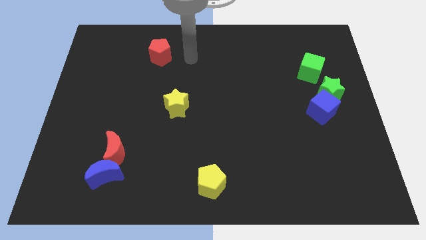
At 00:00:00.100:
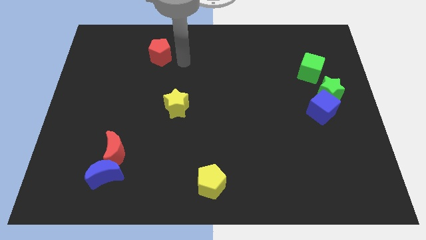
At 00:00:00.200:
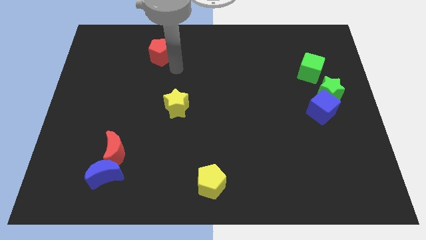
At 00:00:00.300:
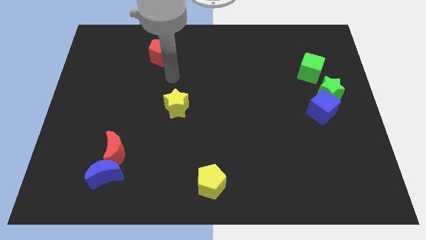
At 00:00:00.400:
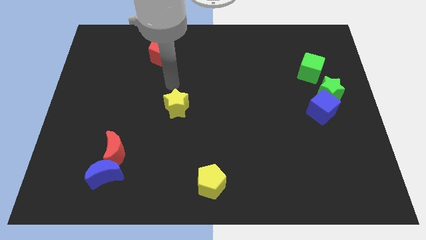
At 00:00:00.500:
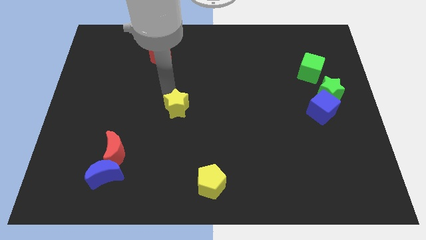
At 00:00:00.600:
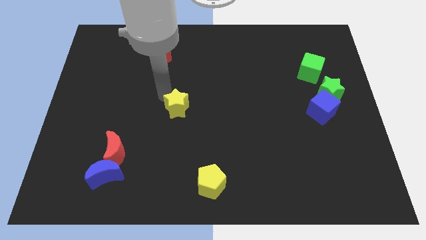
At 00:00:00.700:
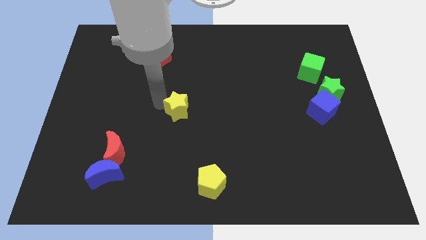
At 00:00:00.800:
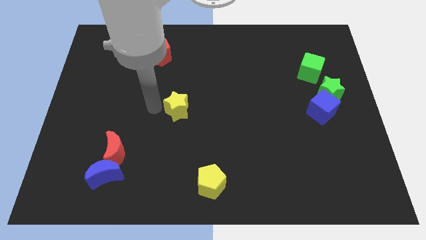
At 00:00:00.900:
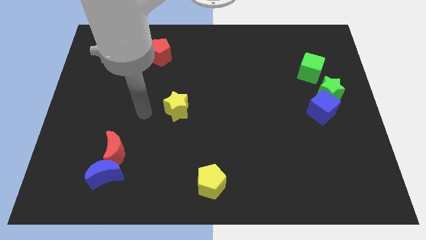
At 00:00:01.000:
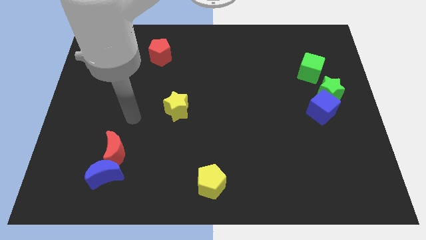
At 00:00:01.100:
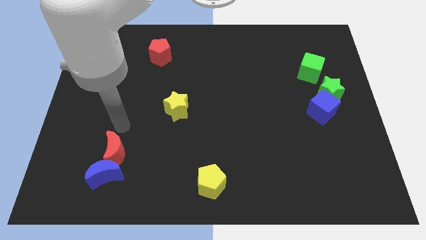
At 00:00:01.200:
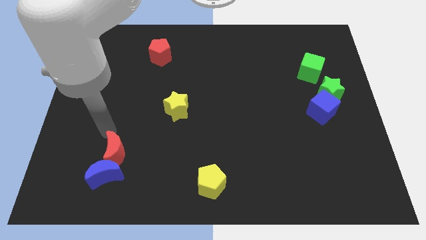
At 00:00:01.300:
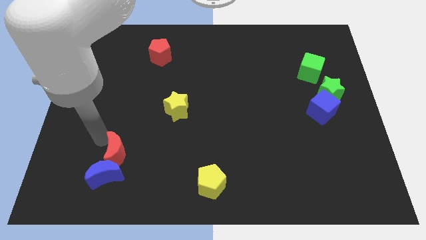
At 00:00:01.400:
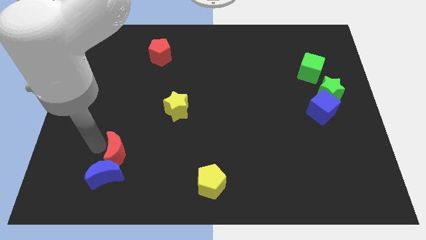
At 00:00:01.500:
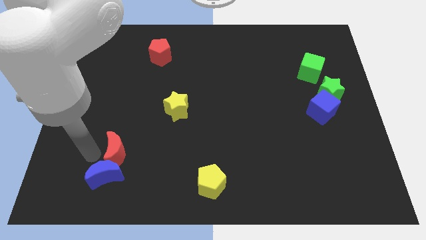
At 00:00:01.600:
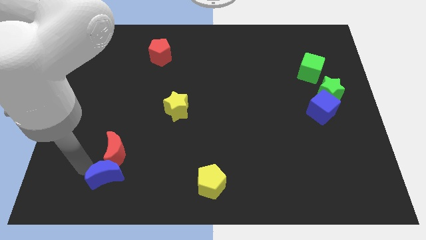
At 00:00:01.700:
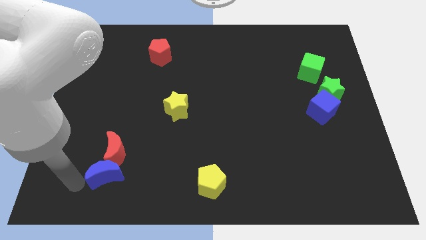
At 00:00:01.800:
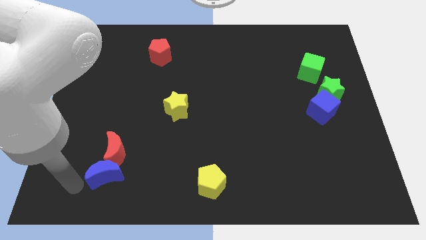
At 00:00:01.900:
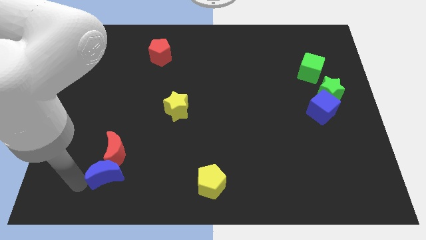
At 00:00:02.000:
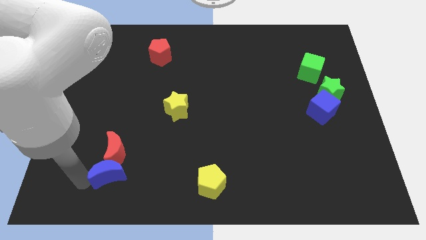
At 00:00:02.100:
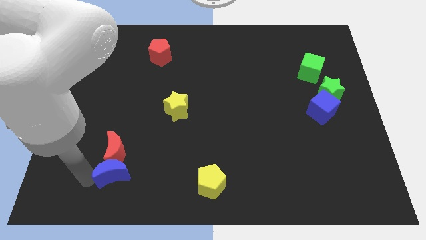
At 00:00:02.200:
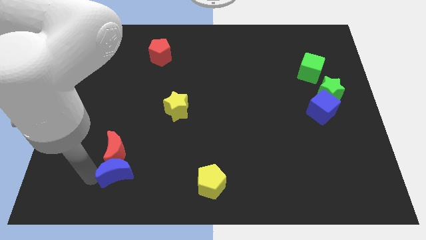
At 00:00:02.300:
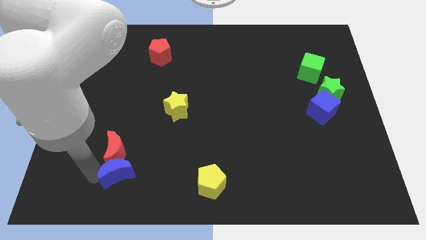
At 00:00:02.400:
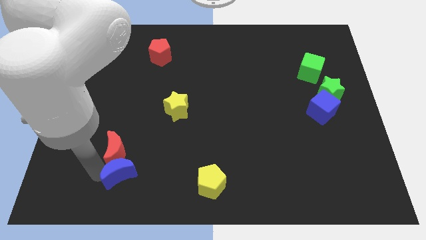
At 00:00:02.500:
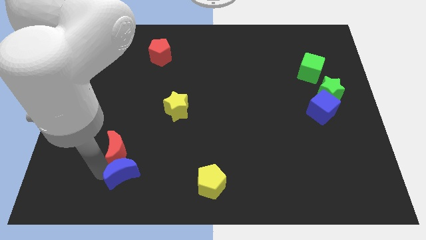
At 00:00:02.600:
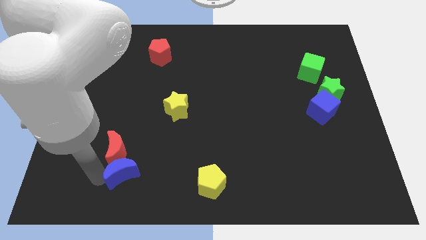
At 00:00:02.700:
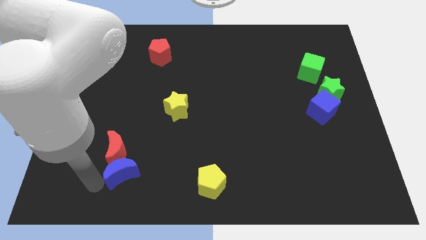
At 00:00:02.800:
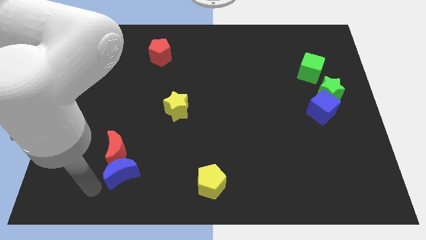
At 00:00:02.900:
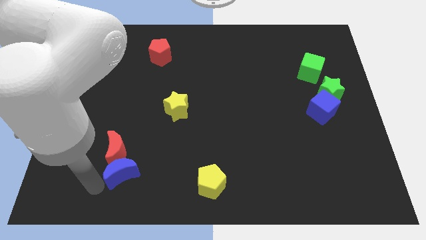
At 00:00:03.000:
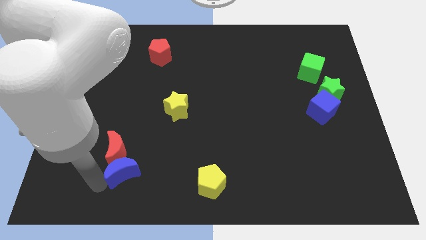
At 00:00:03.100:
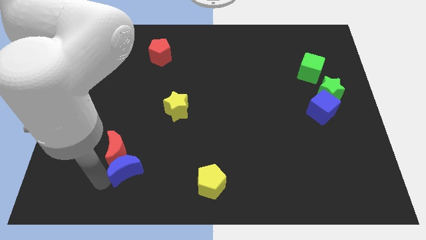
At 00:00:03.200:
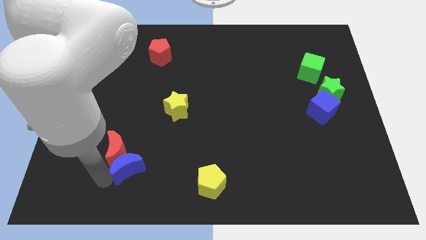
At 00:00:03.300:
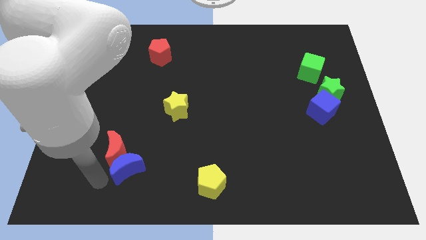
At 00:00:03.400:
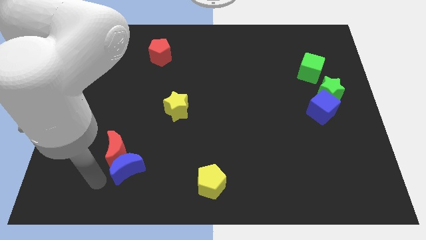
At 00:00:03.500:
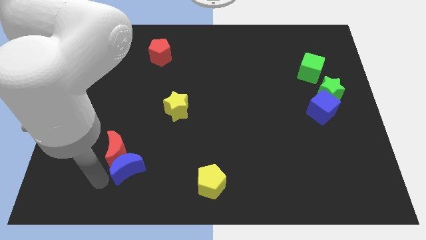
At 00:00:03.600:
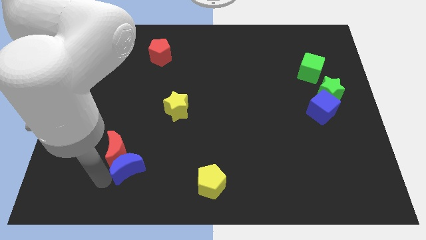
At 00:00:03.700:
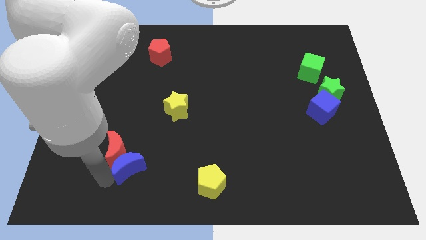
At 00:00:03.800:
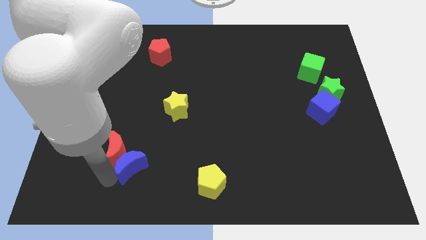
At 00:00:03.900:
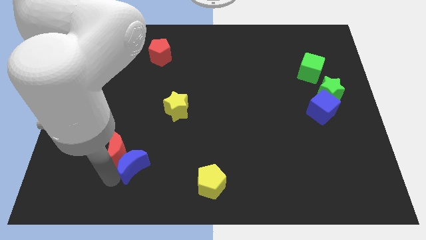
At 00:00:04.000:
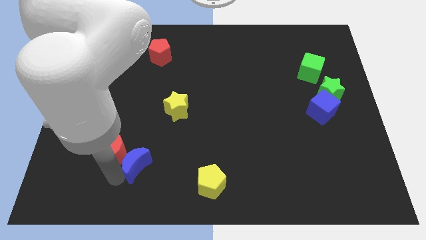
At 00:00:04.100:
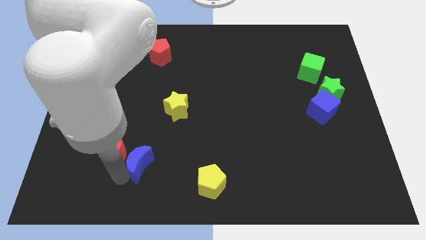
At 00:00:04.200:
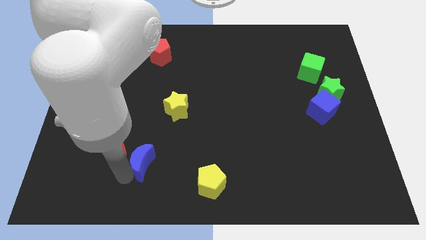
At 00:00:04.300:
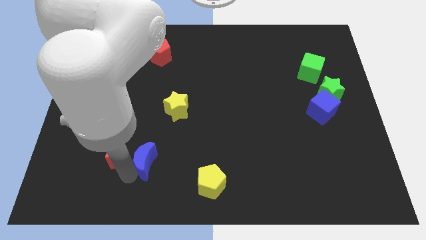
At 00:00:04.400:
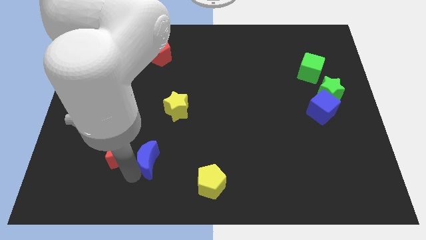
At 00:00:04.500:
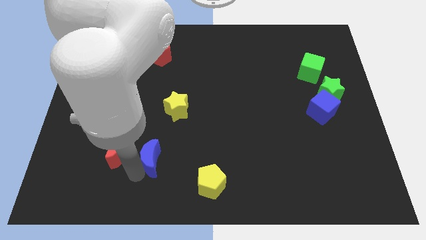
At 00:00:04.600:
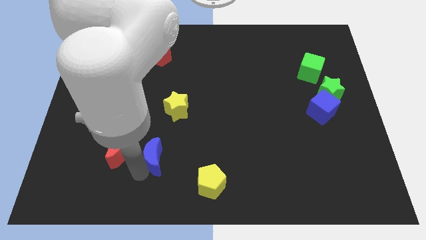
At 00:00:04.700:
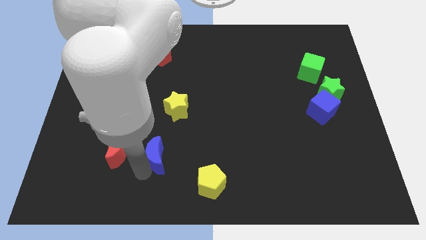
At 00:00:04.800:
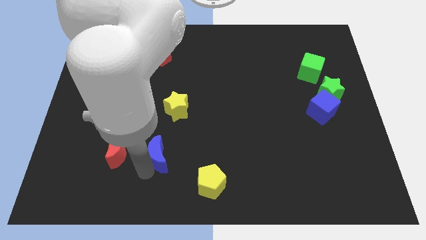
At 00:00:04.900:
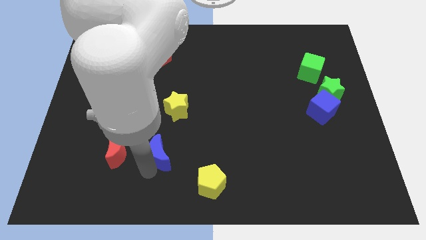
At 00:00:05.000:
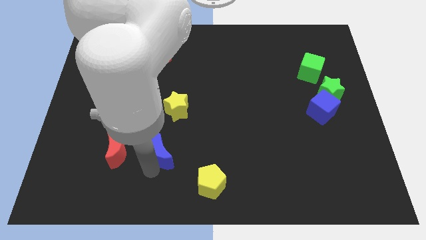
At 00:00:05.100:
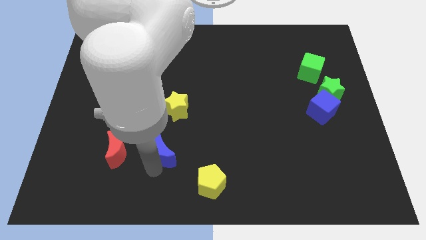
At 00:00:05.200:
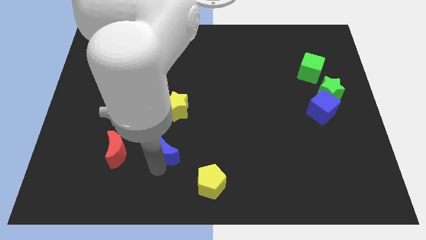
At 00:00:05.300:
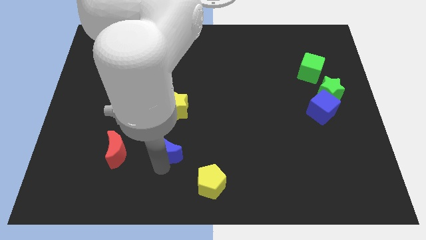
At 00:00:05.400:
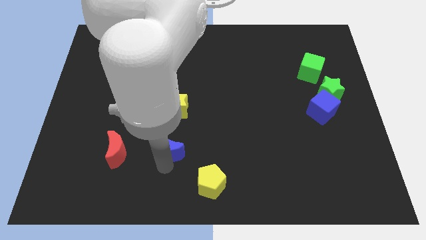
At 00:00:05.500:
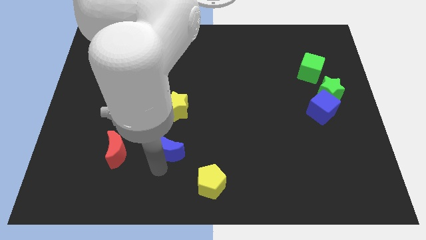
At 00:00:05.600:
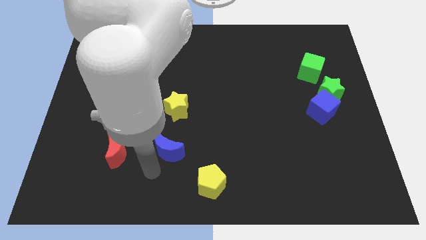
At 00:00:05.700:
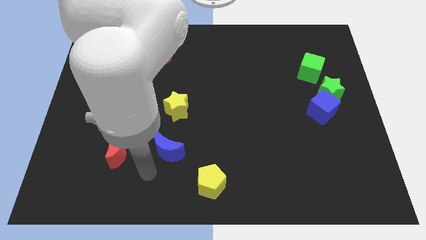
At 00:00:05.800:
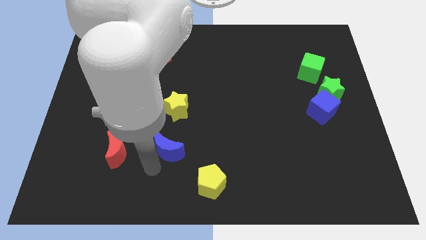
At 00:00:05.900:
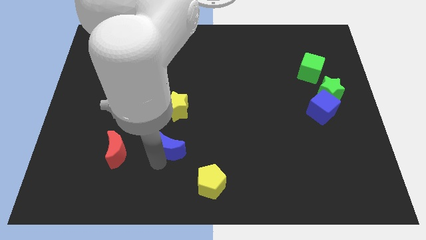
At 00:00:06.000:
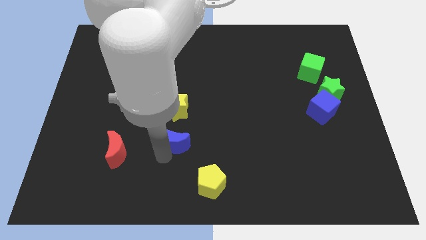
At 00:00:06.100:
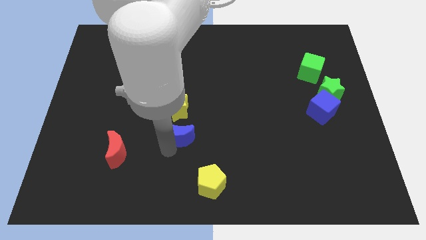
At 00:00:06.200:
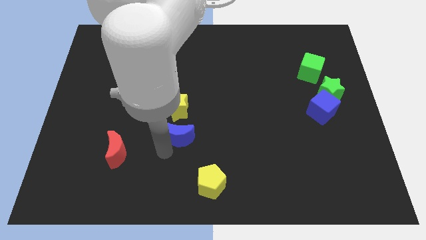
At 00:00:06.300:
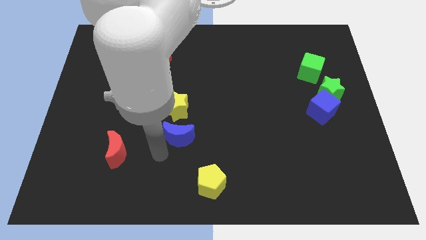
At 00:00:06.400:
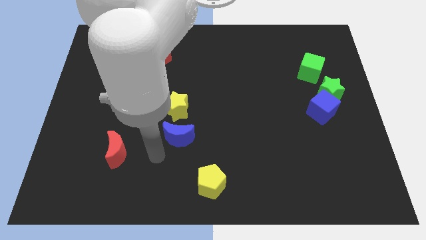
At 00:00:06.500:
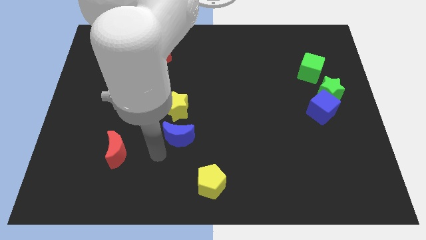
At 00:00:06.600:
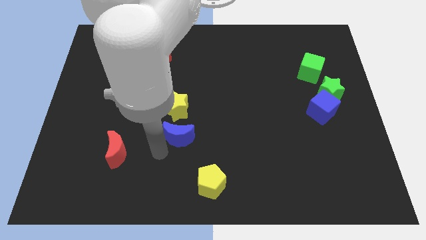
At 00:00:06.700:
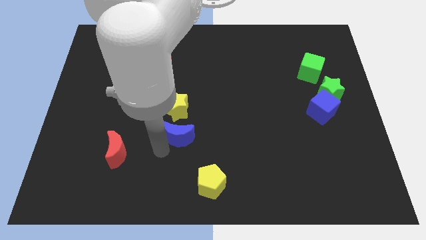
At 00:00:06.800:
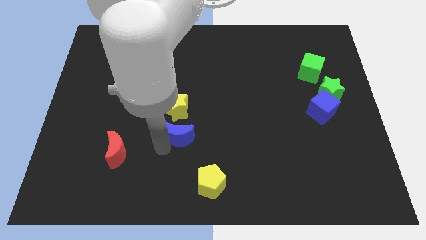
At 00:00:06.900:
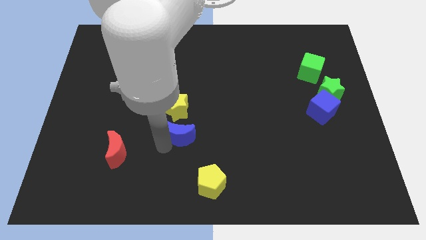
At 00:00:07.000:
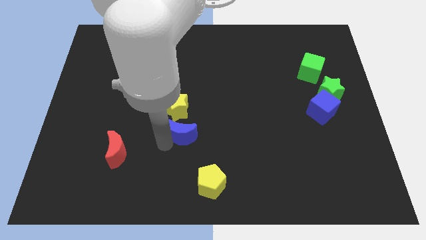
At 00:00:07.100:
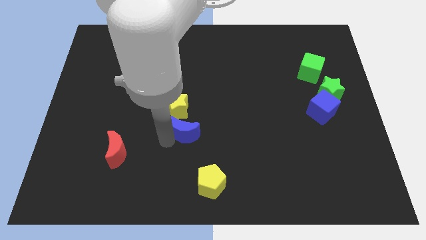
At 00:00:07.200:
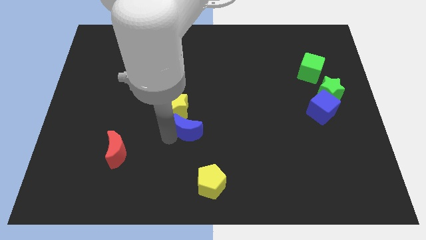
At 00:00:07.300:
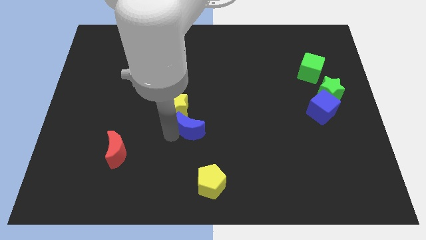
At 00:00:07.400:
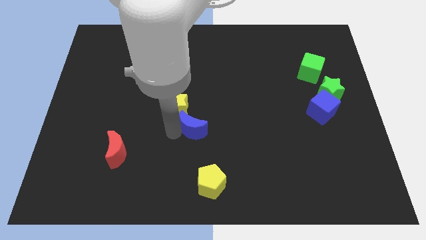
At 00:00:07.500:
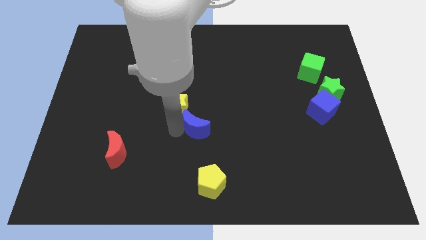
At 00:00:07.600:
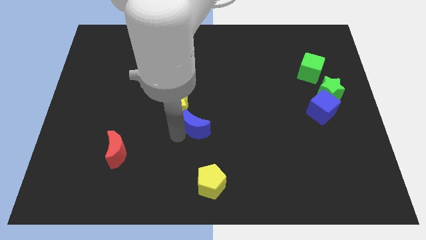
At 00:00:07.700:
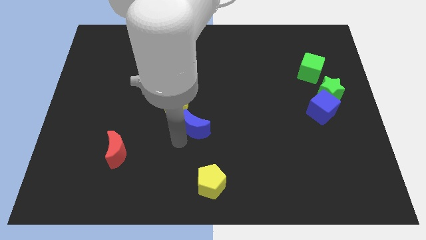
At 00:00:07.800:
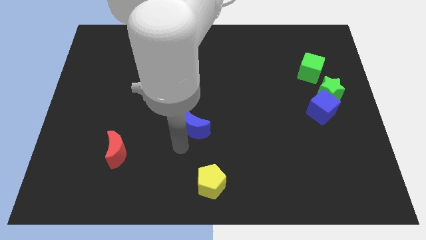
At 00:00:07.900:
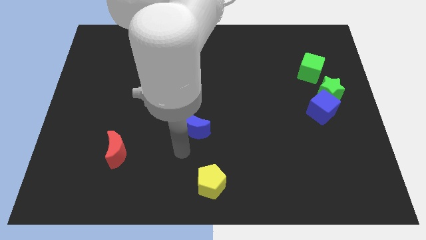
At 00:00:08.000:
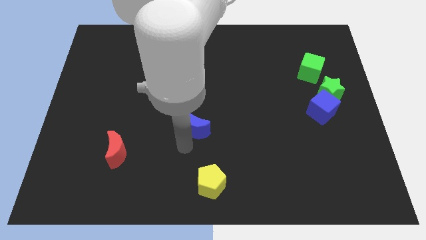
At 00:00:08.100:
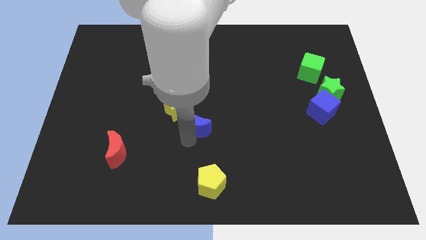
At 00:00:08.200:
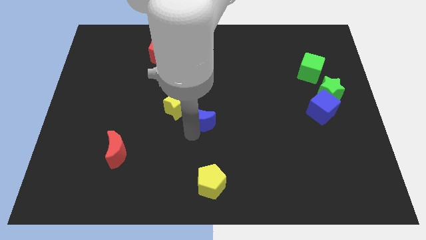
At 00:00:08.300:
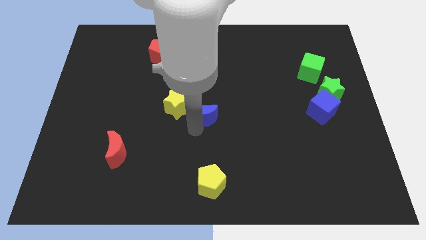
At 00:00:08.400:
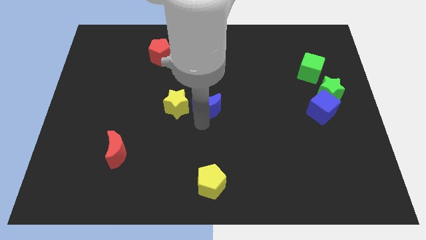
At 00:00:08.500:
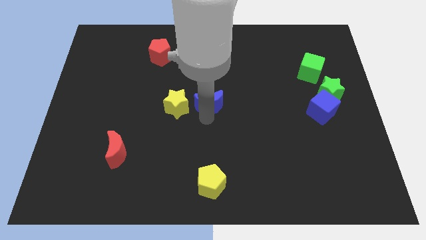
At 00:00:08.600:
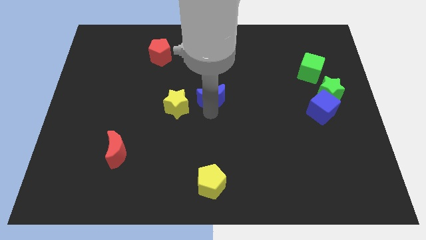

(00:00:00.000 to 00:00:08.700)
put the blue moon to the top right of the yellow star
